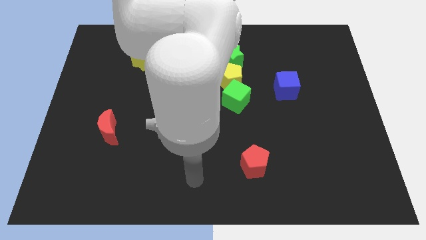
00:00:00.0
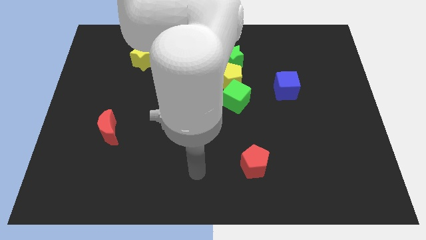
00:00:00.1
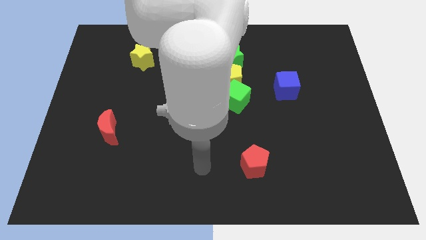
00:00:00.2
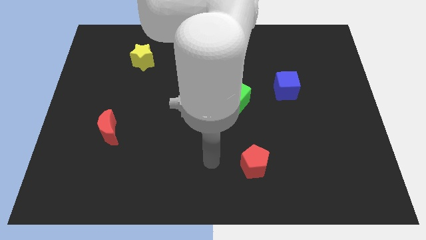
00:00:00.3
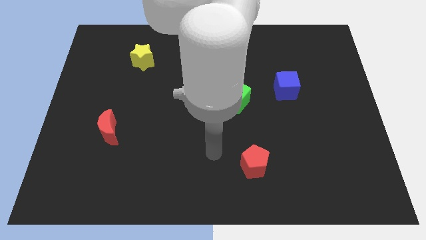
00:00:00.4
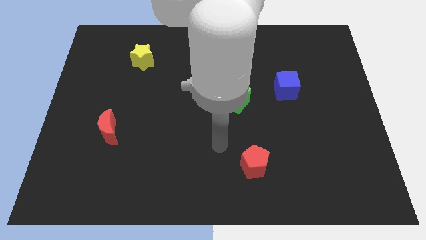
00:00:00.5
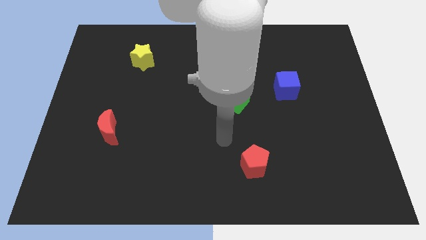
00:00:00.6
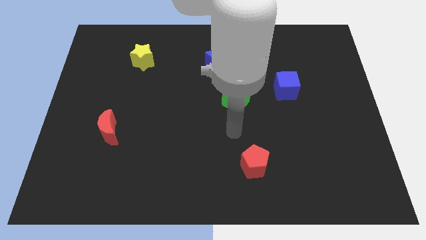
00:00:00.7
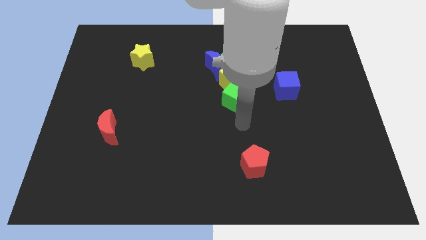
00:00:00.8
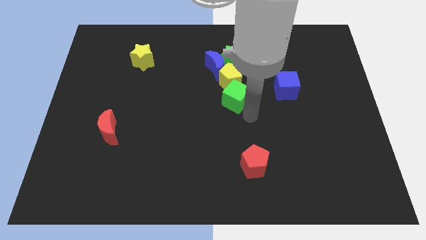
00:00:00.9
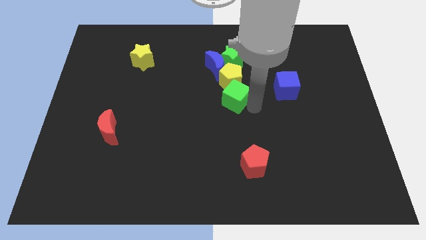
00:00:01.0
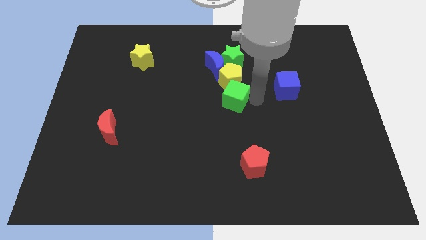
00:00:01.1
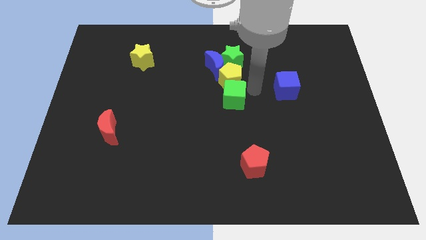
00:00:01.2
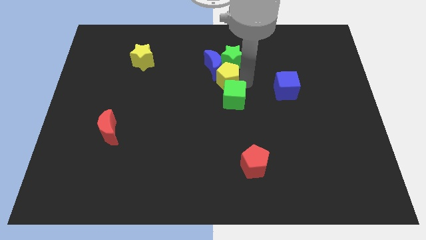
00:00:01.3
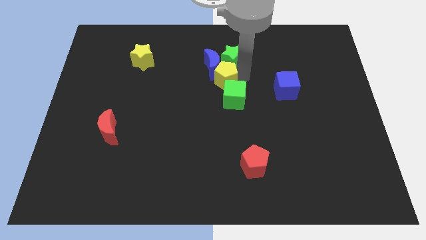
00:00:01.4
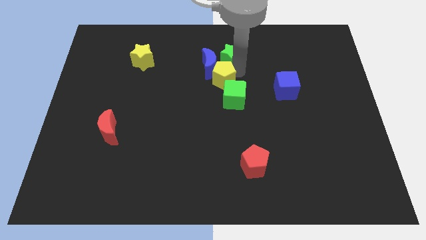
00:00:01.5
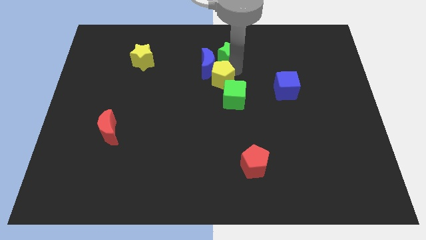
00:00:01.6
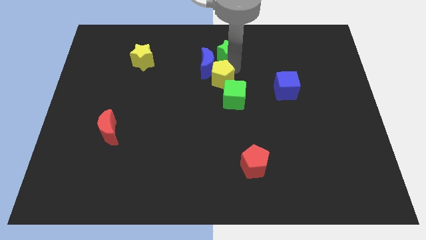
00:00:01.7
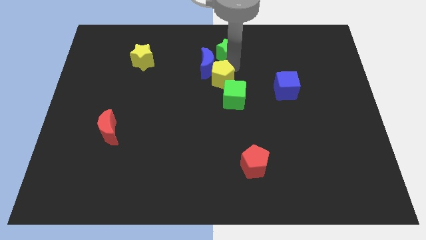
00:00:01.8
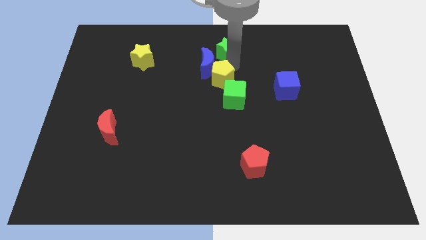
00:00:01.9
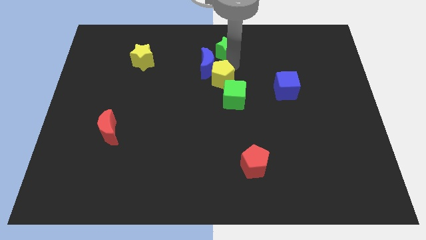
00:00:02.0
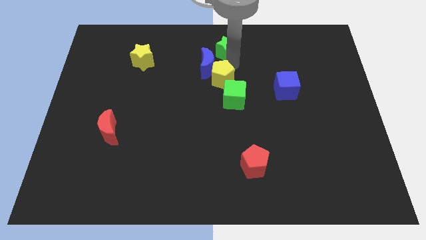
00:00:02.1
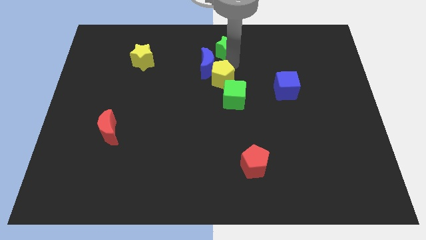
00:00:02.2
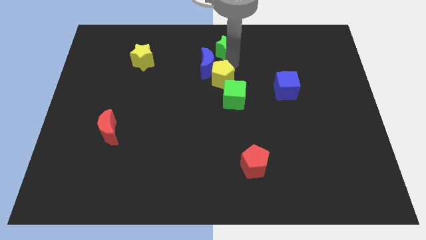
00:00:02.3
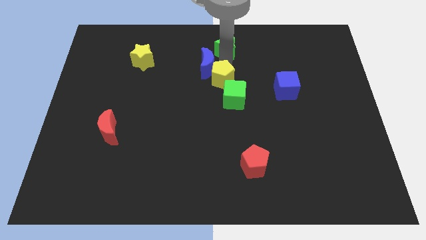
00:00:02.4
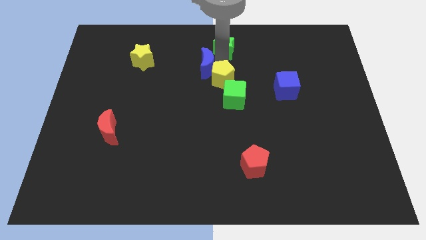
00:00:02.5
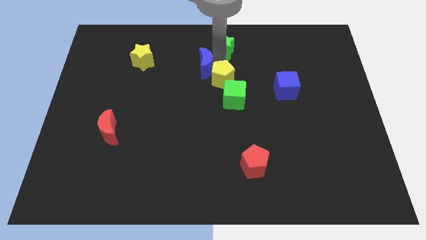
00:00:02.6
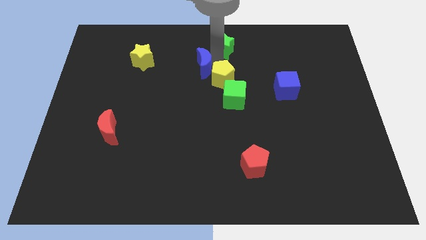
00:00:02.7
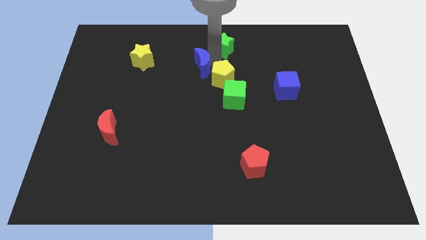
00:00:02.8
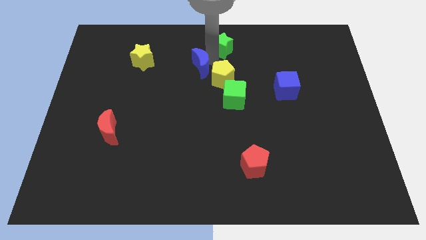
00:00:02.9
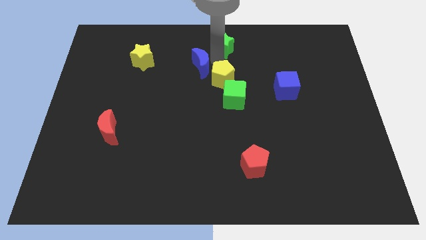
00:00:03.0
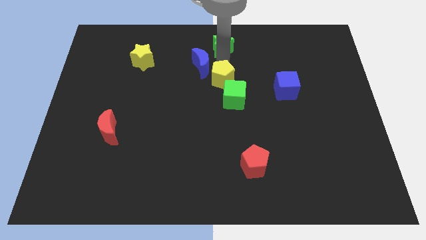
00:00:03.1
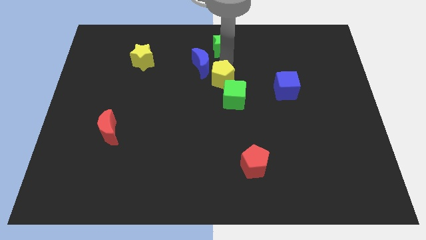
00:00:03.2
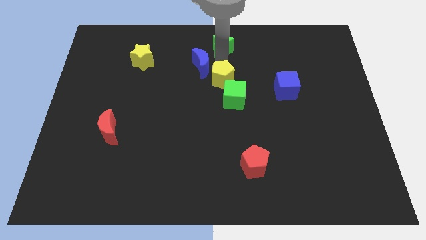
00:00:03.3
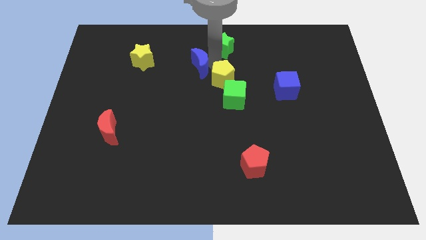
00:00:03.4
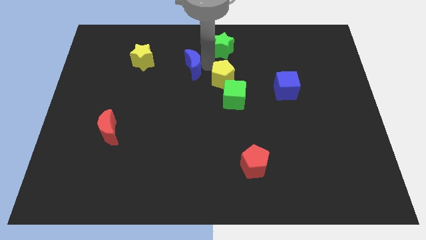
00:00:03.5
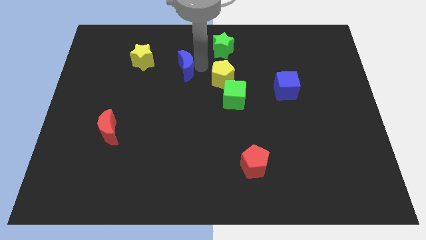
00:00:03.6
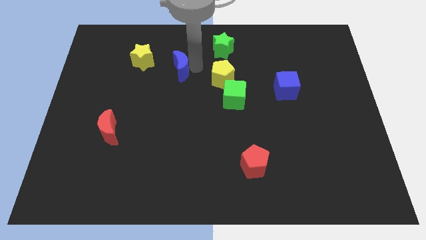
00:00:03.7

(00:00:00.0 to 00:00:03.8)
separate the blue moon from the green star and yellow pentagon

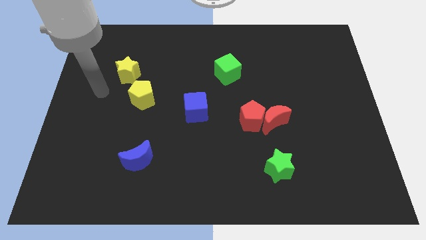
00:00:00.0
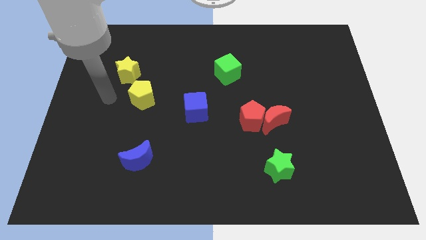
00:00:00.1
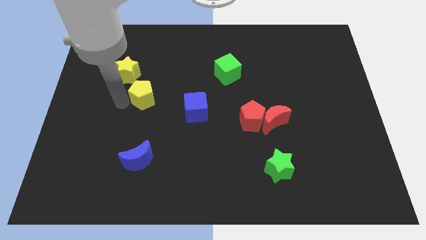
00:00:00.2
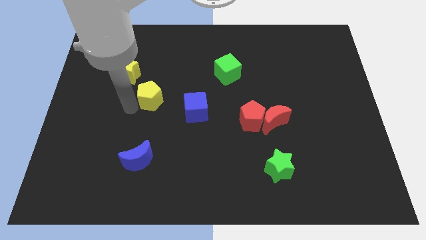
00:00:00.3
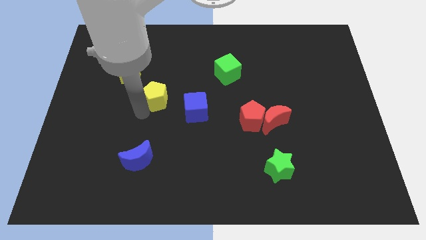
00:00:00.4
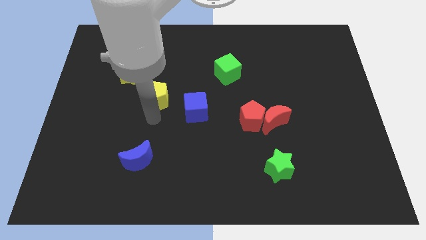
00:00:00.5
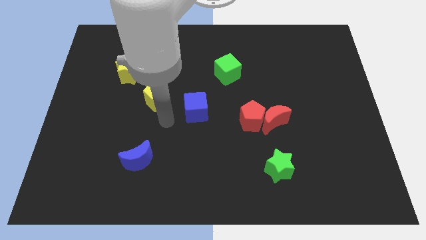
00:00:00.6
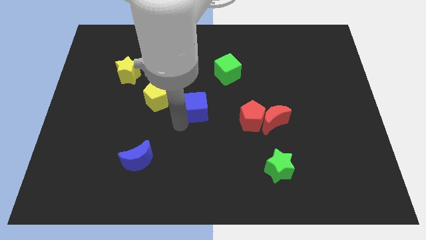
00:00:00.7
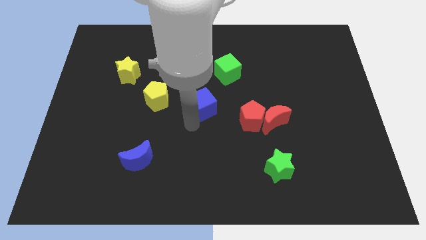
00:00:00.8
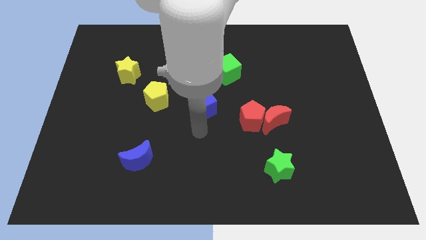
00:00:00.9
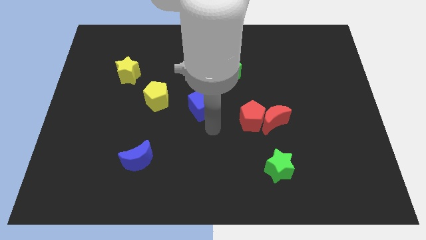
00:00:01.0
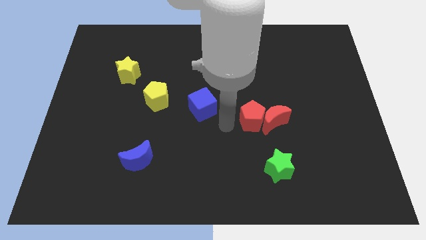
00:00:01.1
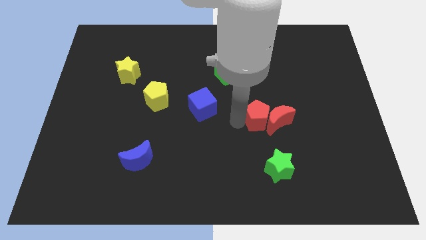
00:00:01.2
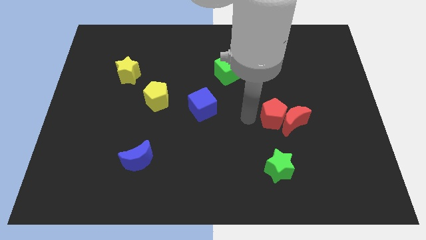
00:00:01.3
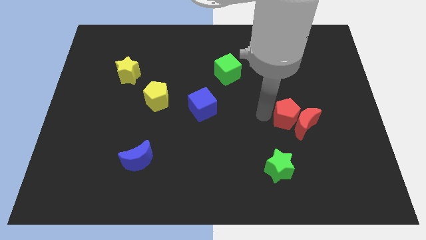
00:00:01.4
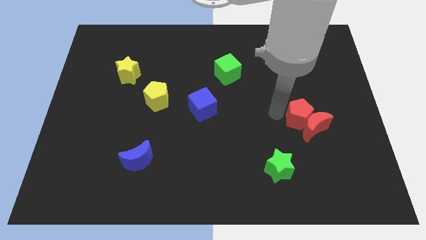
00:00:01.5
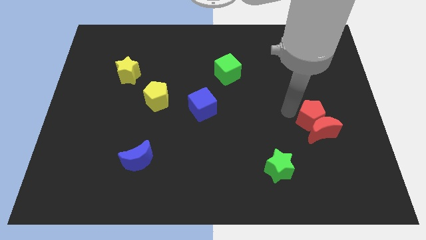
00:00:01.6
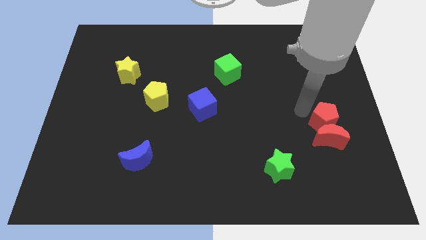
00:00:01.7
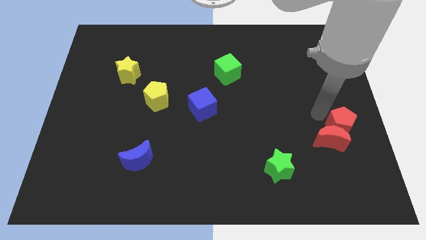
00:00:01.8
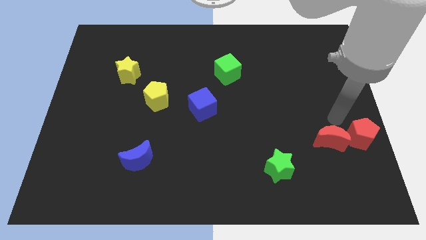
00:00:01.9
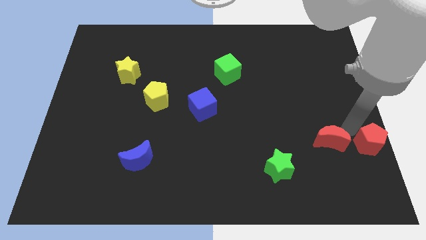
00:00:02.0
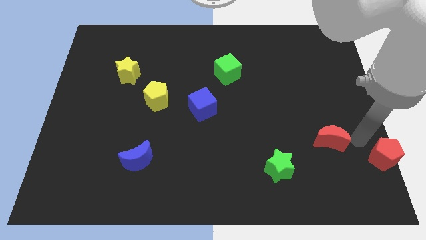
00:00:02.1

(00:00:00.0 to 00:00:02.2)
move the red moon away from the red pentagon

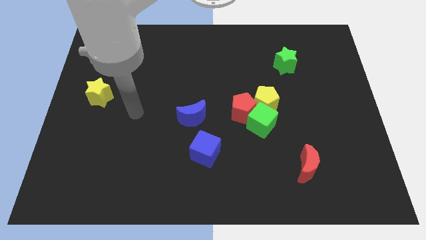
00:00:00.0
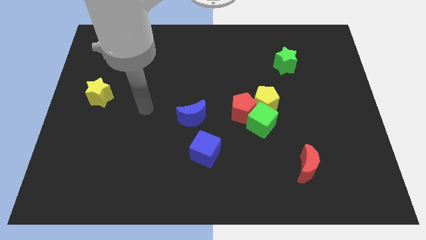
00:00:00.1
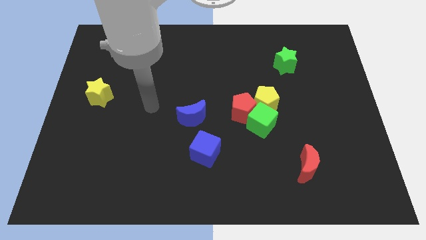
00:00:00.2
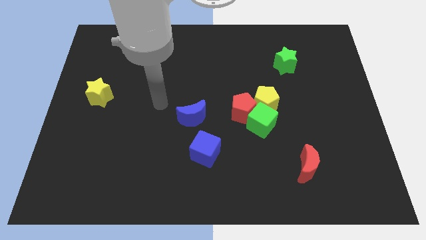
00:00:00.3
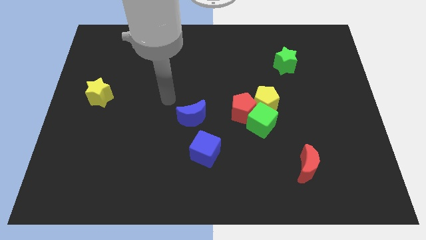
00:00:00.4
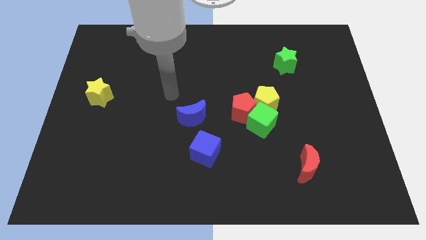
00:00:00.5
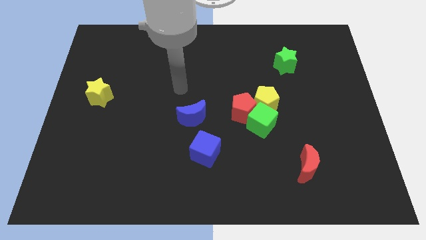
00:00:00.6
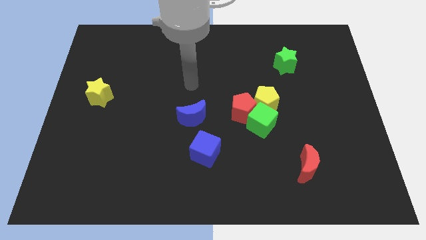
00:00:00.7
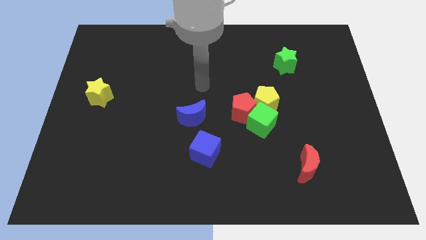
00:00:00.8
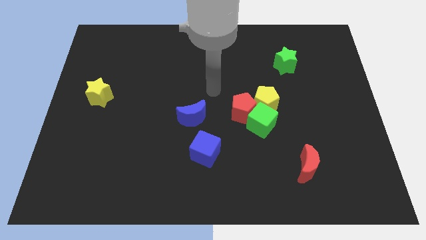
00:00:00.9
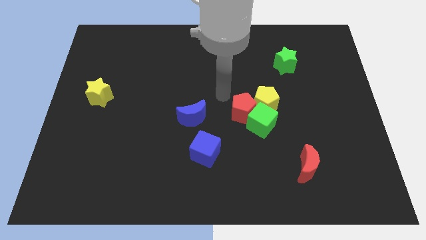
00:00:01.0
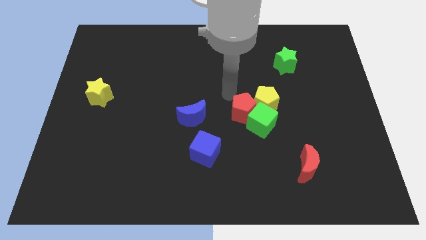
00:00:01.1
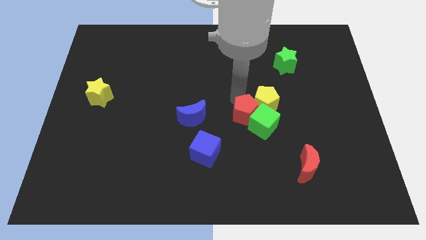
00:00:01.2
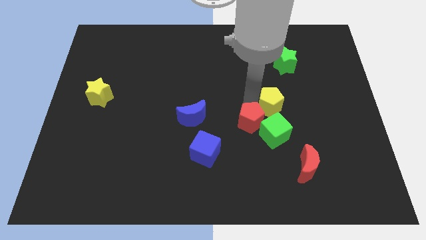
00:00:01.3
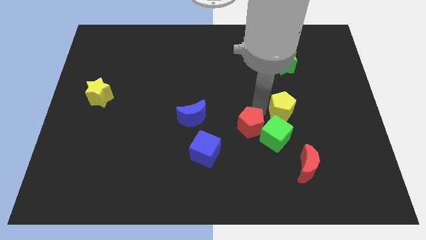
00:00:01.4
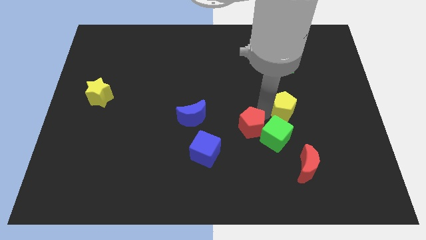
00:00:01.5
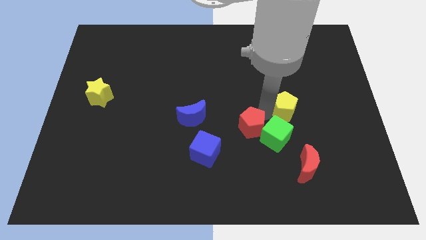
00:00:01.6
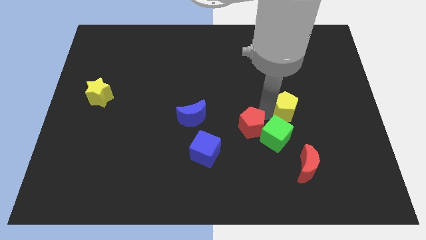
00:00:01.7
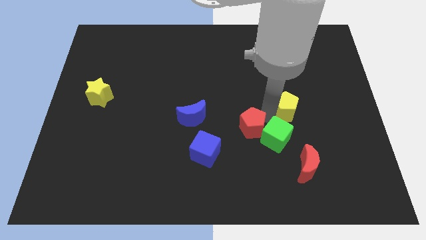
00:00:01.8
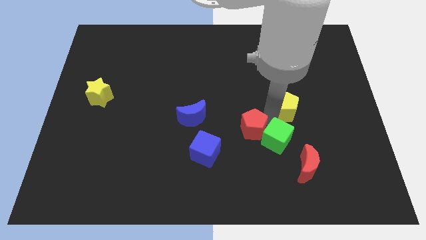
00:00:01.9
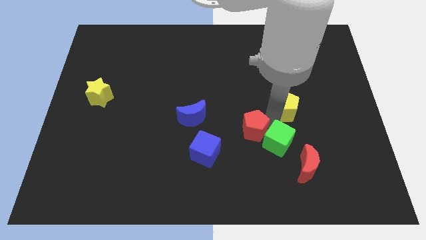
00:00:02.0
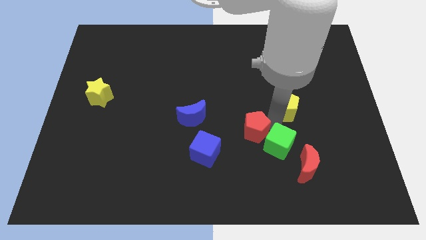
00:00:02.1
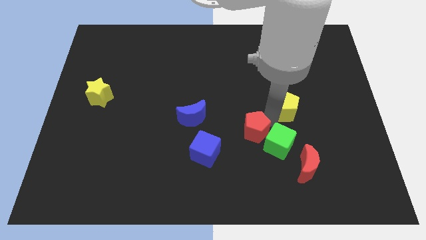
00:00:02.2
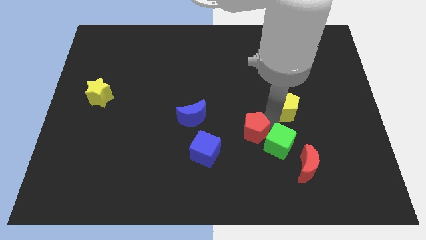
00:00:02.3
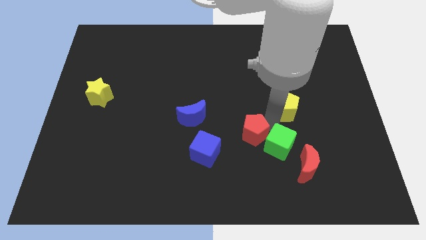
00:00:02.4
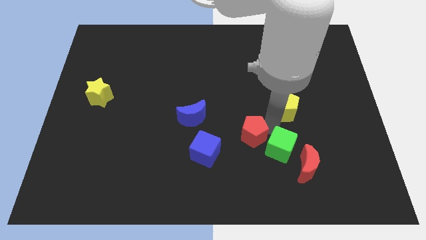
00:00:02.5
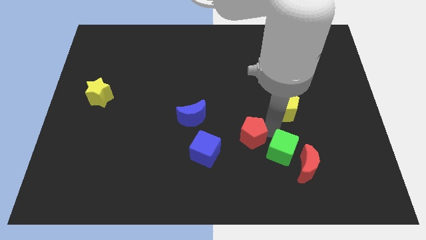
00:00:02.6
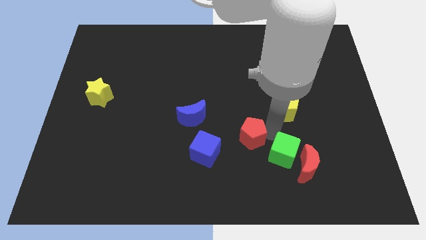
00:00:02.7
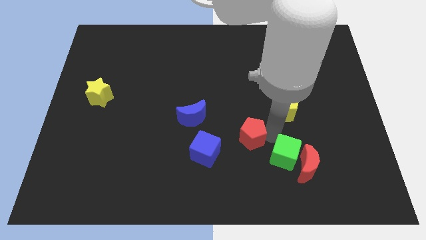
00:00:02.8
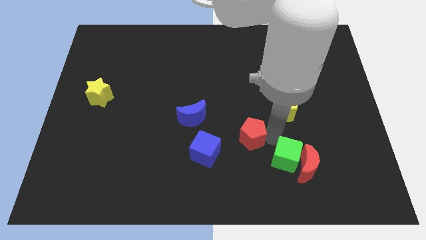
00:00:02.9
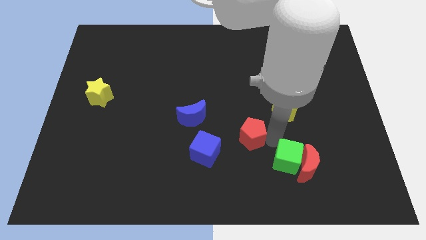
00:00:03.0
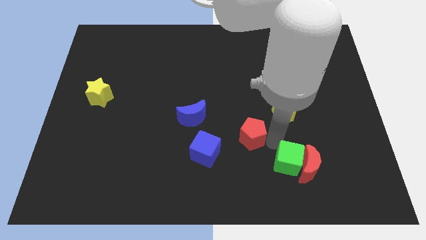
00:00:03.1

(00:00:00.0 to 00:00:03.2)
pull the green cube apart from the red pentagon and yellow pentagon
